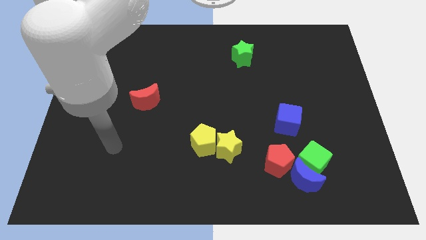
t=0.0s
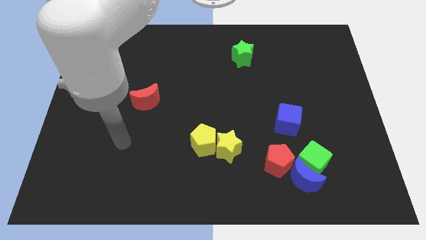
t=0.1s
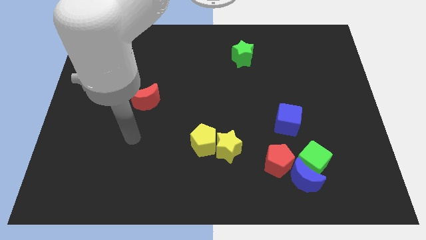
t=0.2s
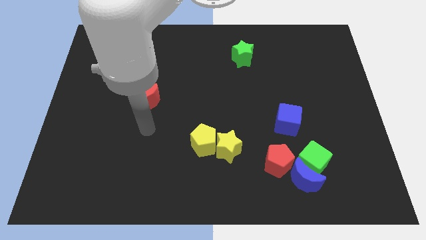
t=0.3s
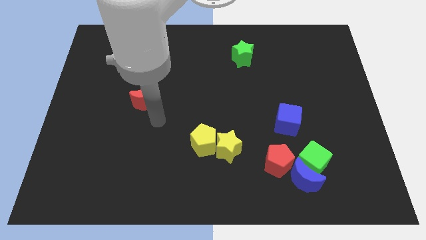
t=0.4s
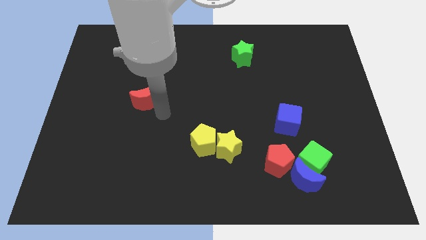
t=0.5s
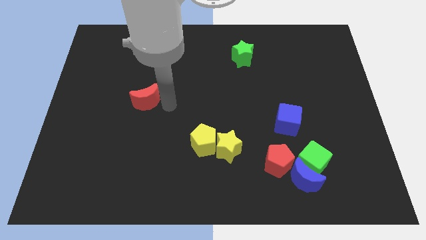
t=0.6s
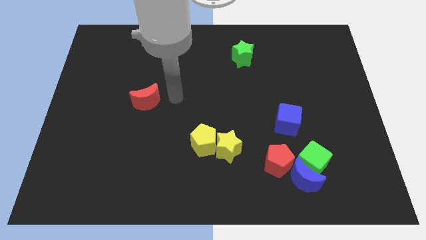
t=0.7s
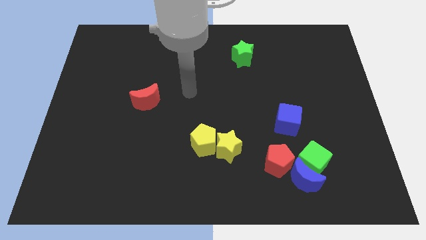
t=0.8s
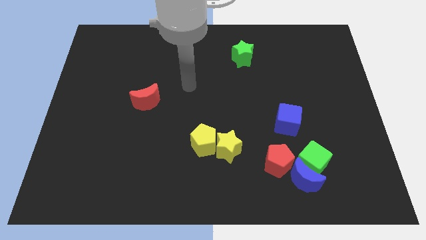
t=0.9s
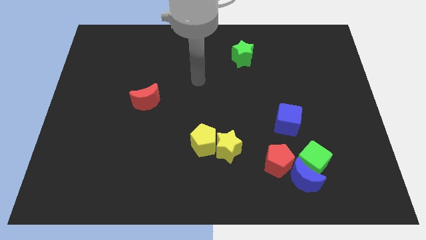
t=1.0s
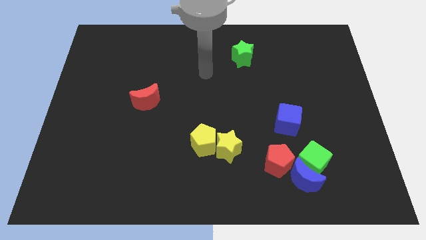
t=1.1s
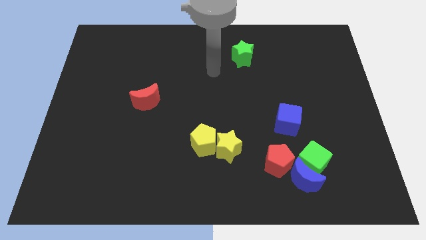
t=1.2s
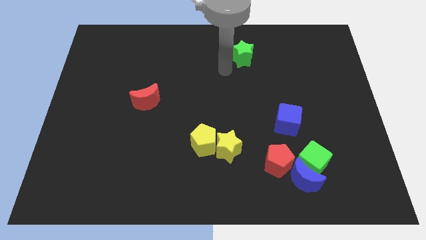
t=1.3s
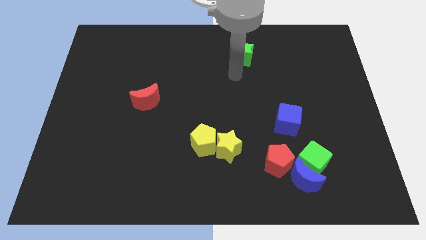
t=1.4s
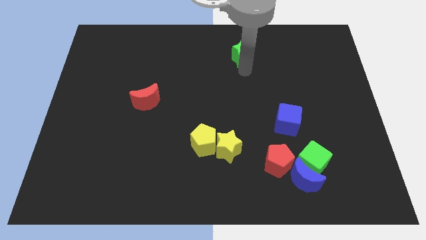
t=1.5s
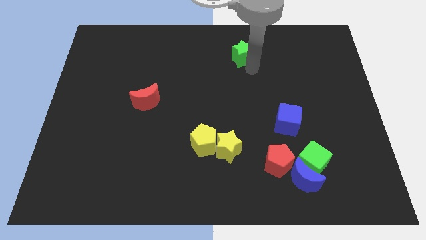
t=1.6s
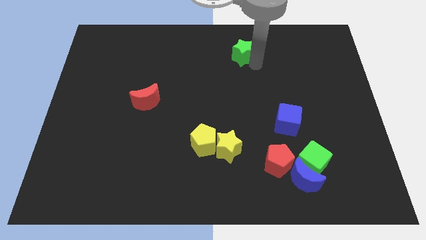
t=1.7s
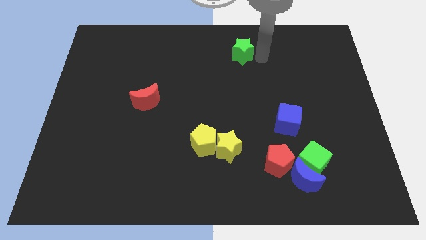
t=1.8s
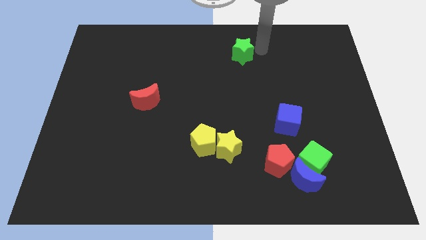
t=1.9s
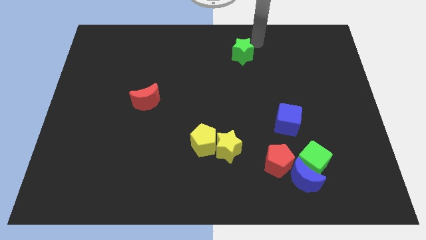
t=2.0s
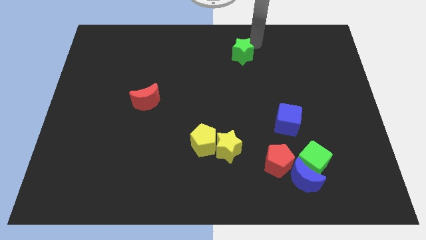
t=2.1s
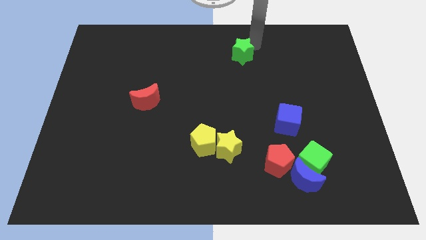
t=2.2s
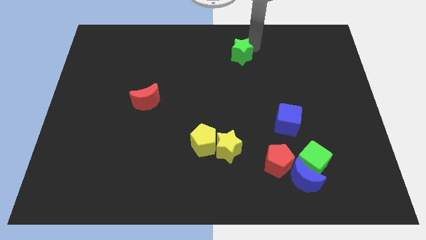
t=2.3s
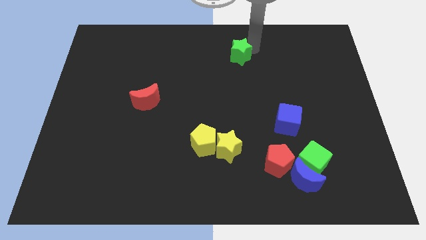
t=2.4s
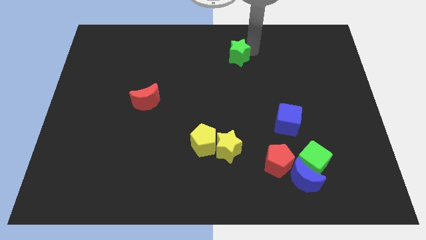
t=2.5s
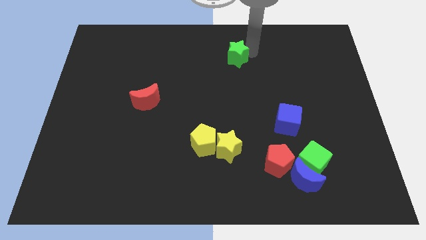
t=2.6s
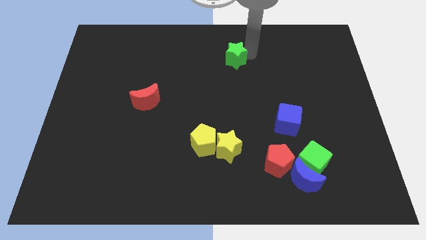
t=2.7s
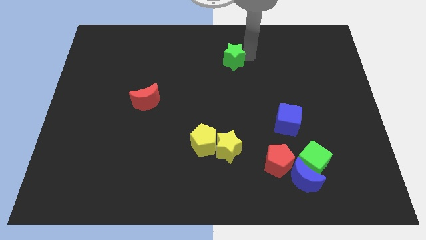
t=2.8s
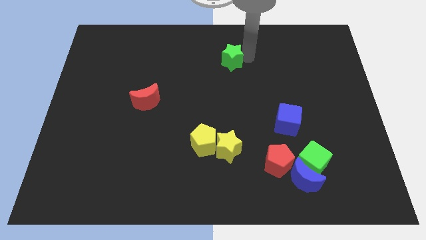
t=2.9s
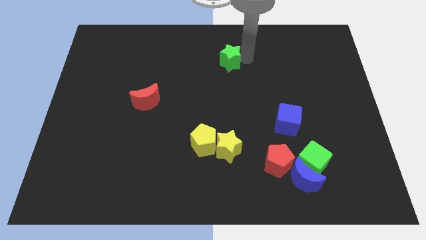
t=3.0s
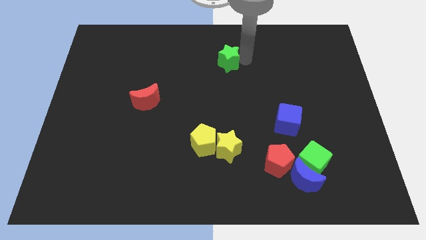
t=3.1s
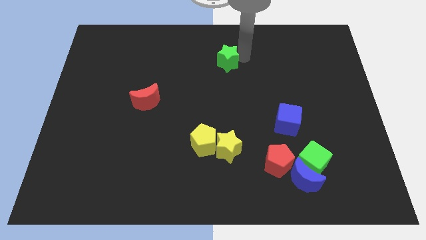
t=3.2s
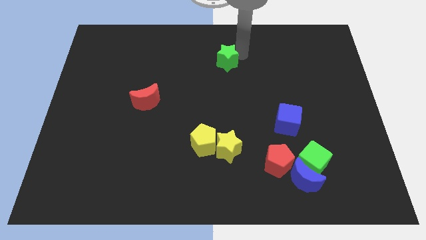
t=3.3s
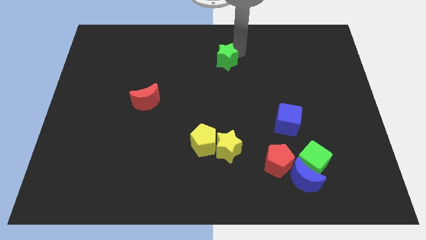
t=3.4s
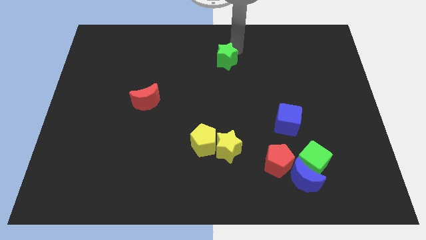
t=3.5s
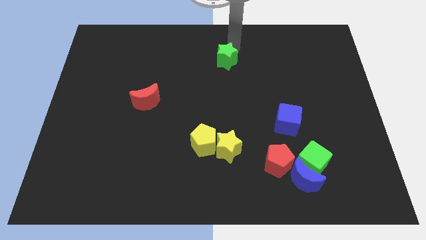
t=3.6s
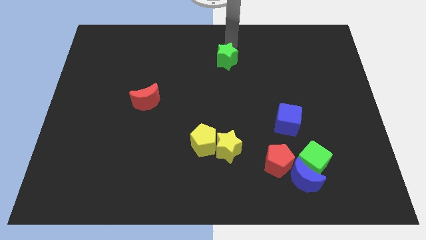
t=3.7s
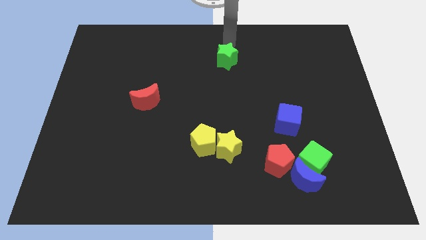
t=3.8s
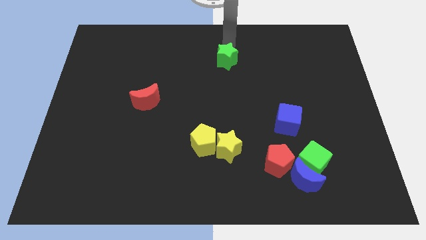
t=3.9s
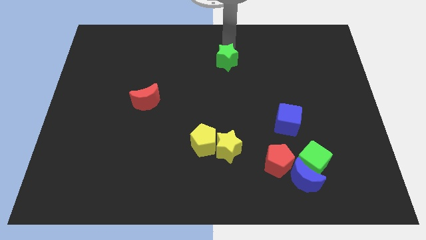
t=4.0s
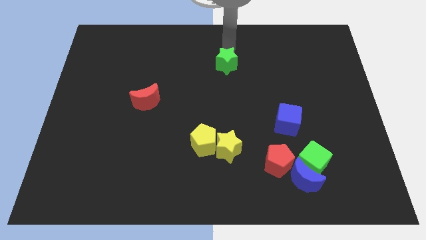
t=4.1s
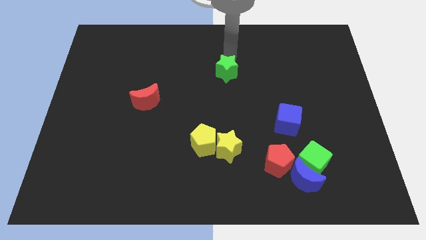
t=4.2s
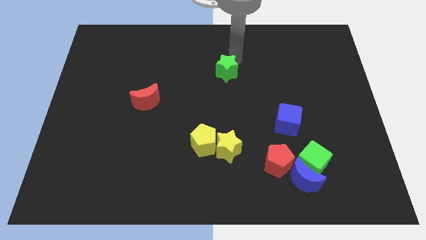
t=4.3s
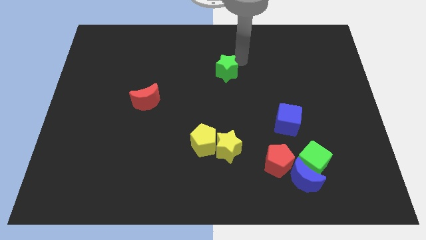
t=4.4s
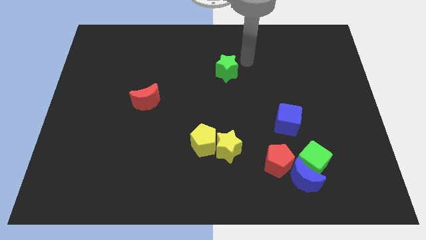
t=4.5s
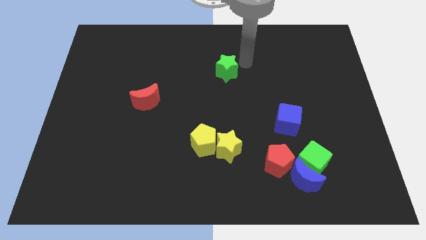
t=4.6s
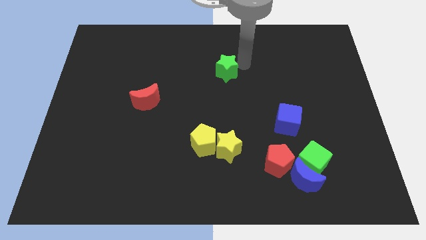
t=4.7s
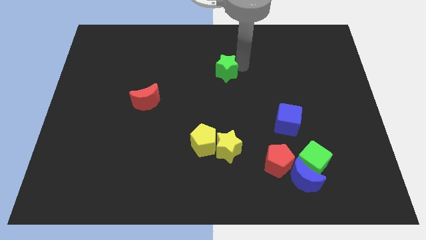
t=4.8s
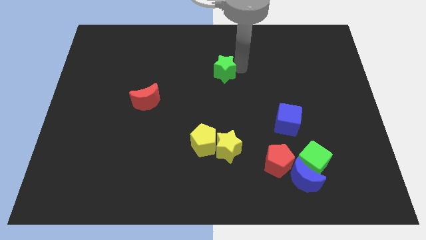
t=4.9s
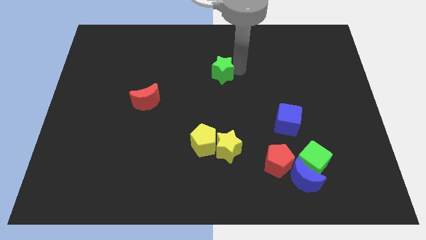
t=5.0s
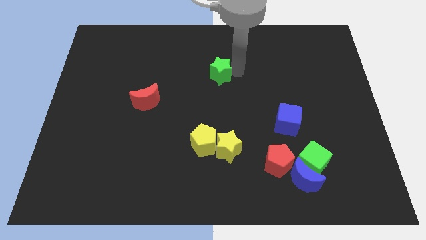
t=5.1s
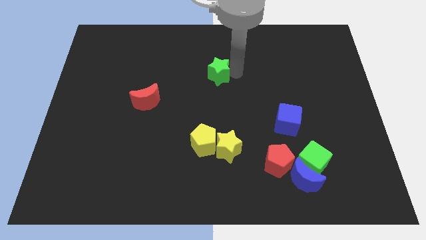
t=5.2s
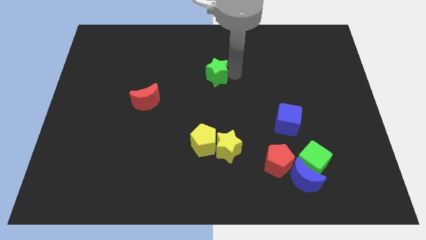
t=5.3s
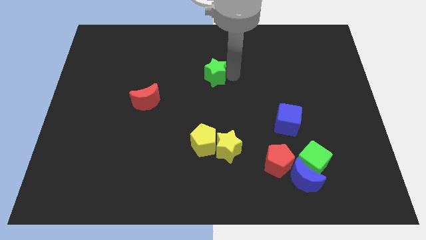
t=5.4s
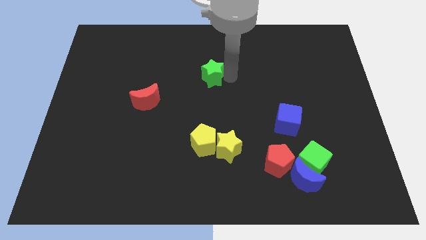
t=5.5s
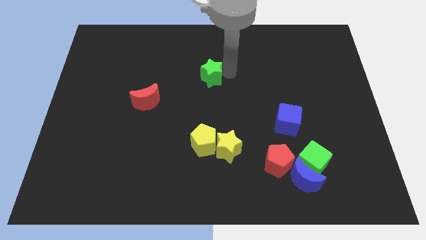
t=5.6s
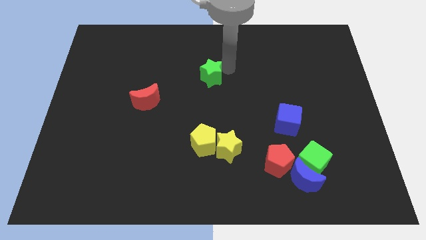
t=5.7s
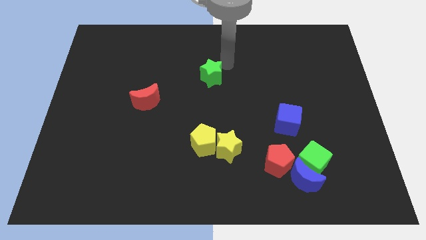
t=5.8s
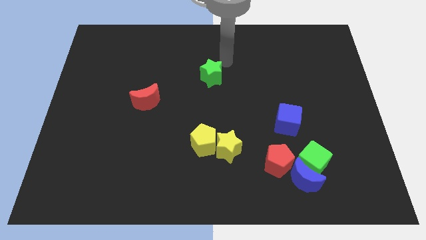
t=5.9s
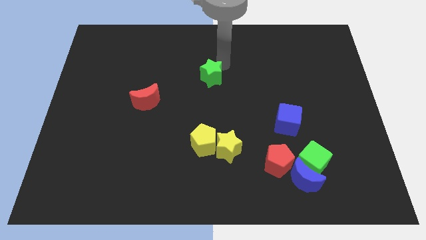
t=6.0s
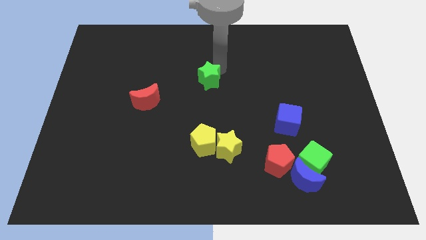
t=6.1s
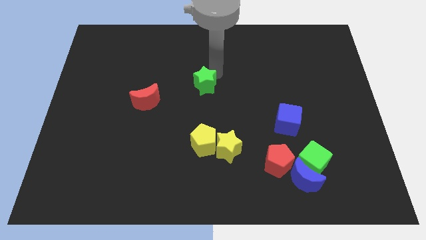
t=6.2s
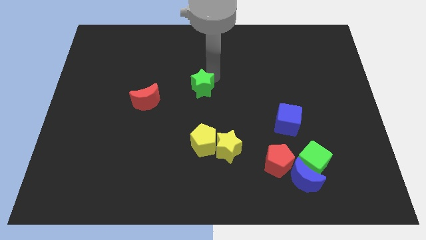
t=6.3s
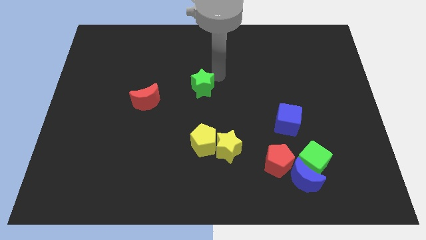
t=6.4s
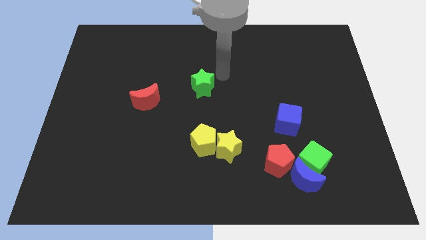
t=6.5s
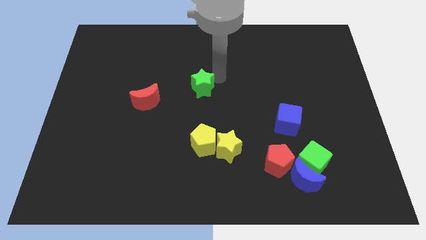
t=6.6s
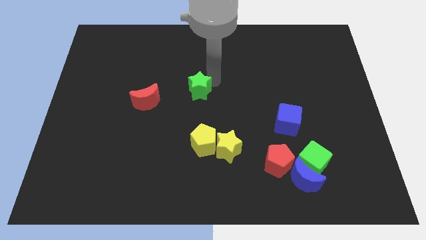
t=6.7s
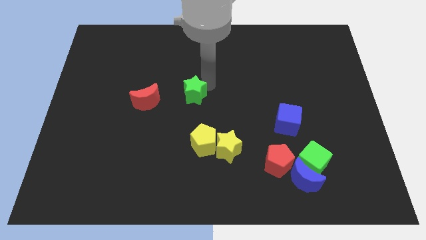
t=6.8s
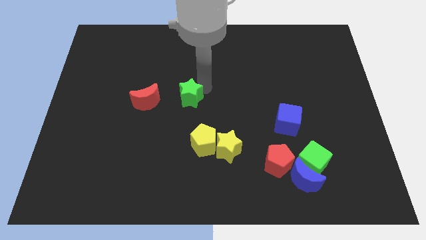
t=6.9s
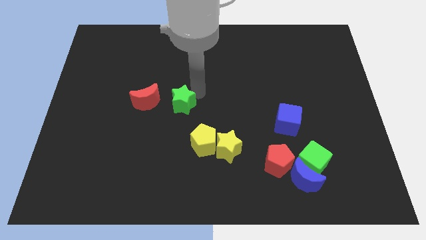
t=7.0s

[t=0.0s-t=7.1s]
push the green star downwards and to the left

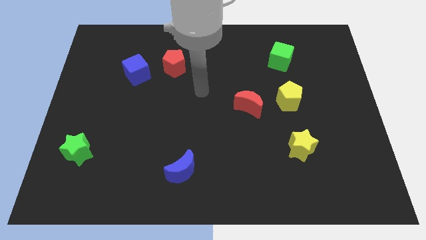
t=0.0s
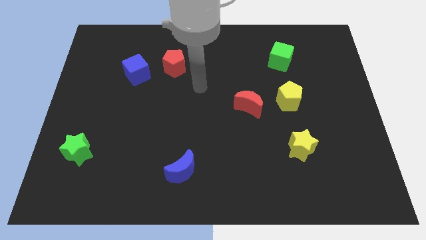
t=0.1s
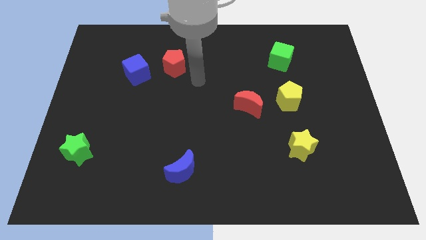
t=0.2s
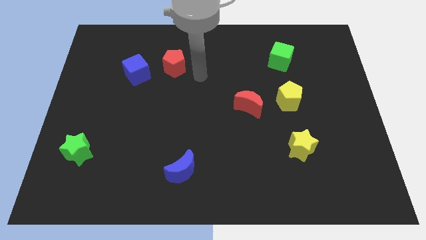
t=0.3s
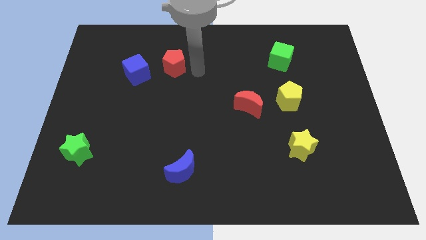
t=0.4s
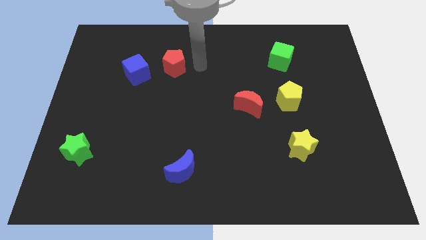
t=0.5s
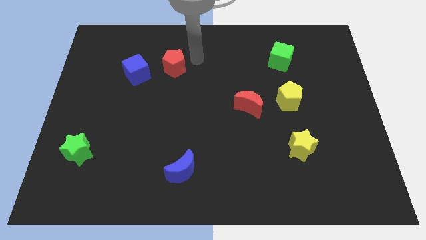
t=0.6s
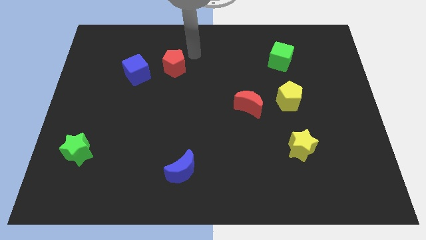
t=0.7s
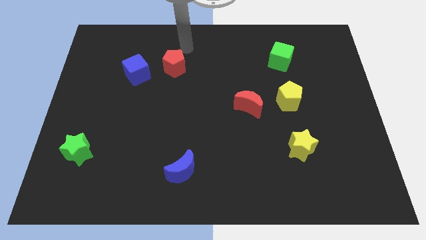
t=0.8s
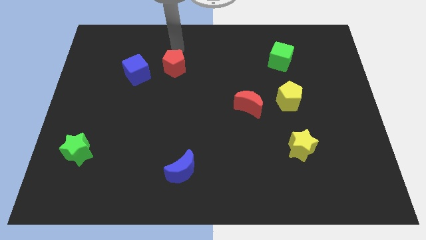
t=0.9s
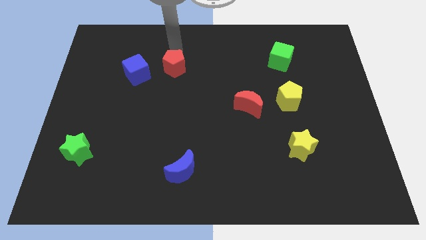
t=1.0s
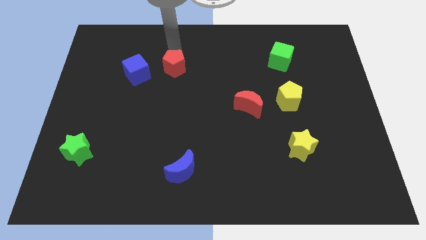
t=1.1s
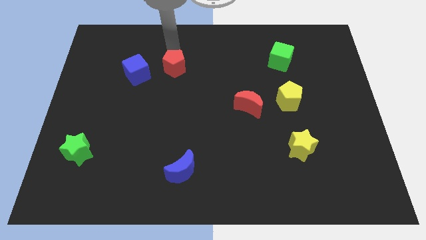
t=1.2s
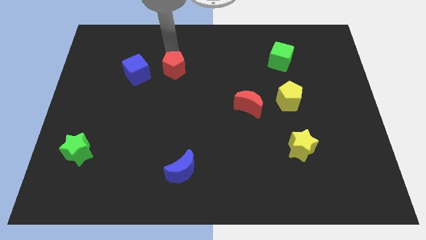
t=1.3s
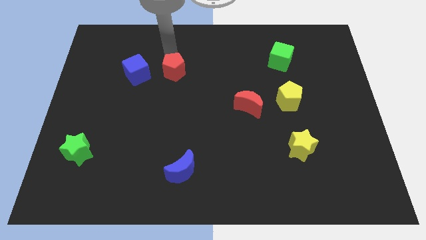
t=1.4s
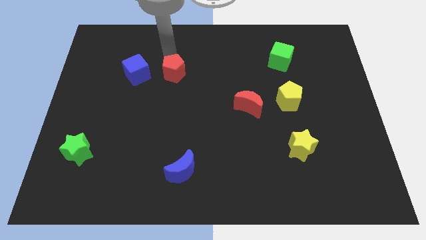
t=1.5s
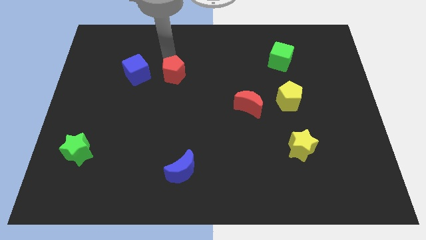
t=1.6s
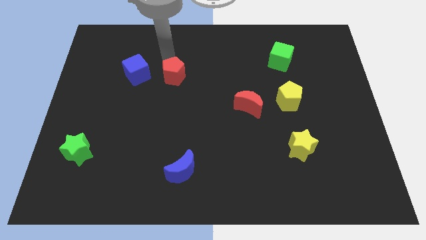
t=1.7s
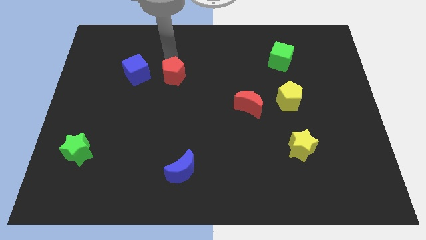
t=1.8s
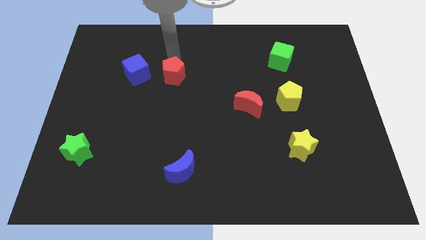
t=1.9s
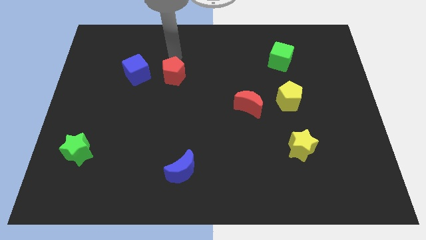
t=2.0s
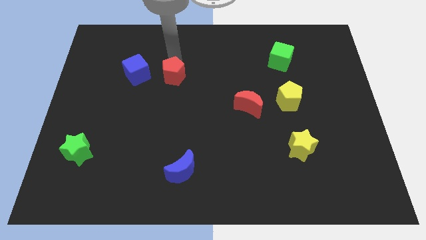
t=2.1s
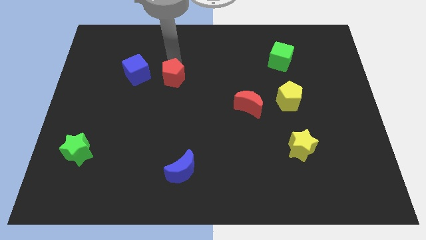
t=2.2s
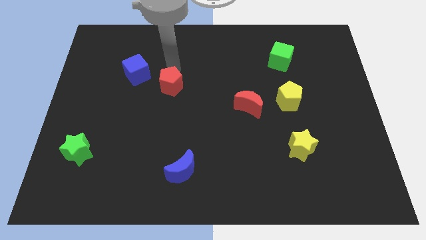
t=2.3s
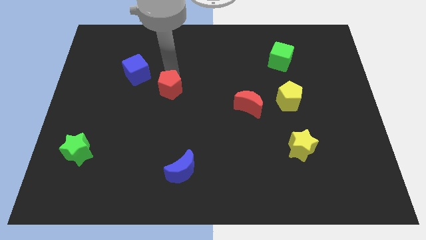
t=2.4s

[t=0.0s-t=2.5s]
move the red pentagon down a bit
